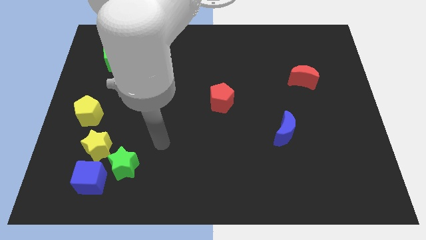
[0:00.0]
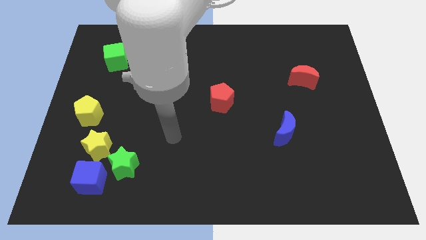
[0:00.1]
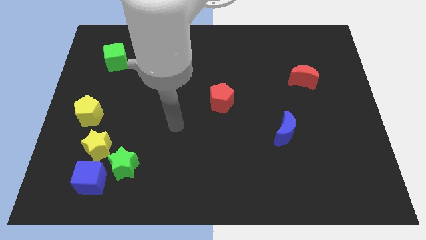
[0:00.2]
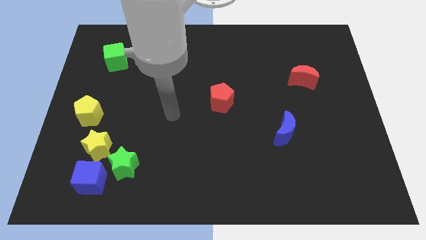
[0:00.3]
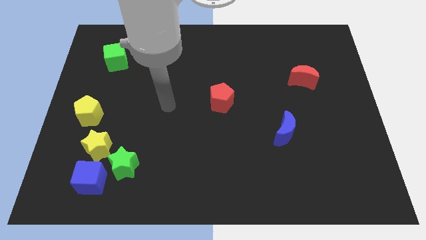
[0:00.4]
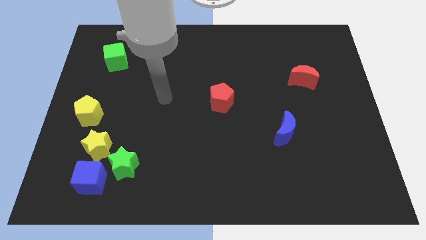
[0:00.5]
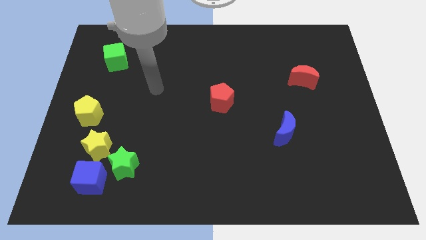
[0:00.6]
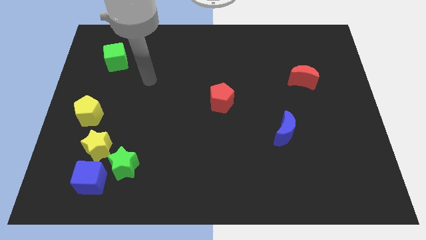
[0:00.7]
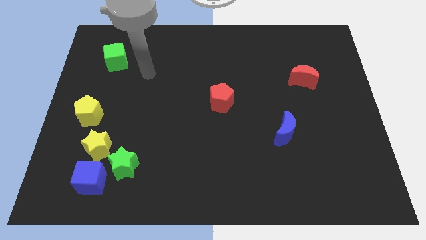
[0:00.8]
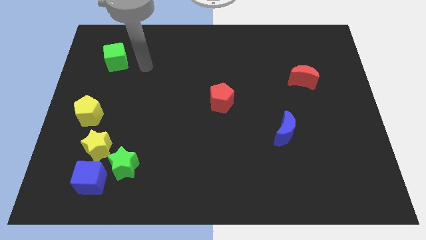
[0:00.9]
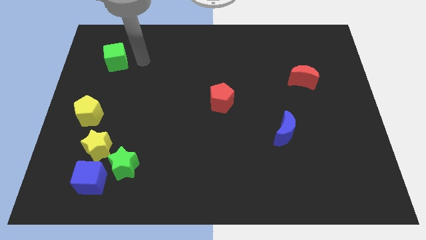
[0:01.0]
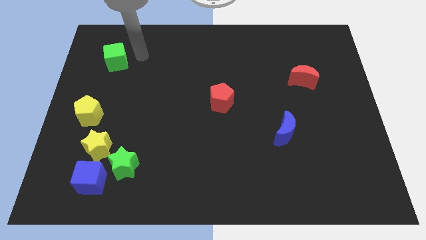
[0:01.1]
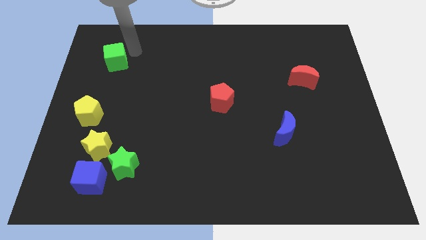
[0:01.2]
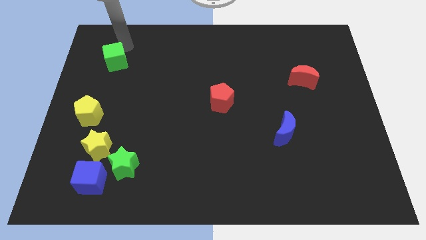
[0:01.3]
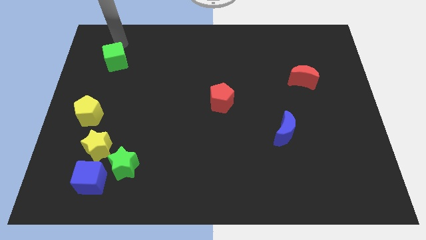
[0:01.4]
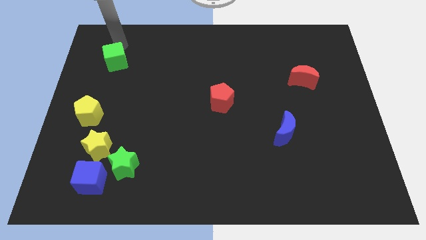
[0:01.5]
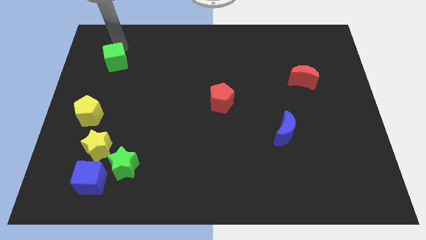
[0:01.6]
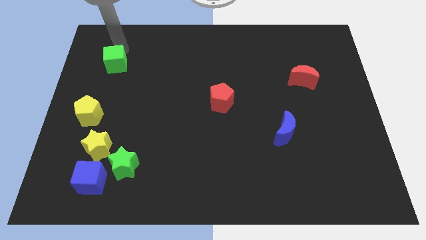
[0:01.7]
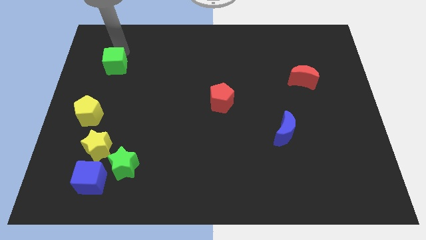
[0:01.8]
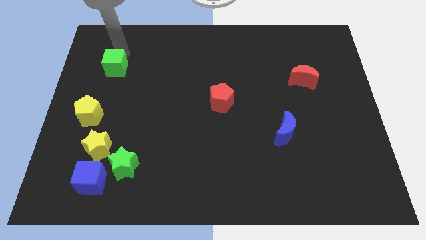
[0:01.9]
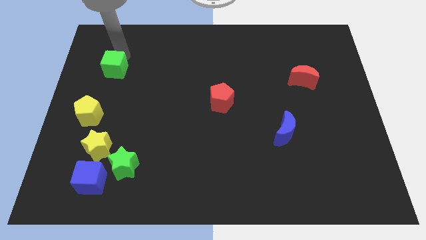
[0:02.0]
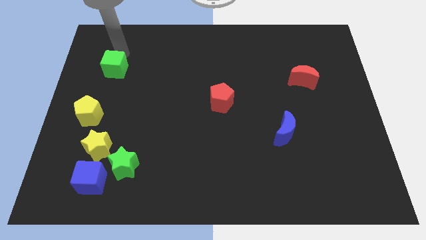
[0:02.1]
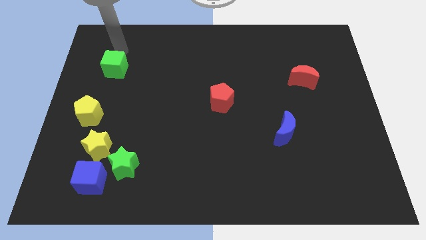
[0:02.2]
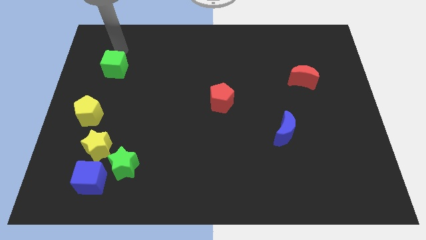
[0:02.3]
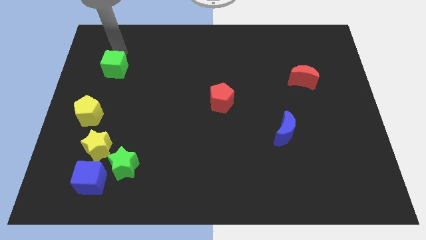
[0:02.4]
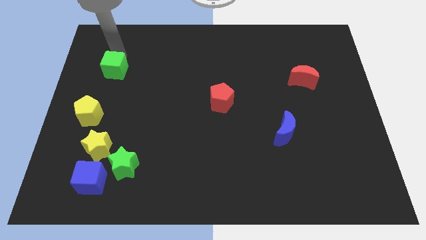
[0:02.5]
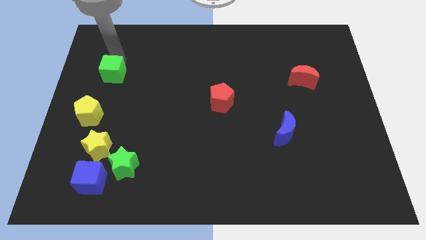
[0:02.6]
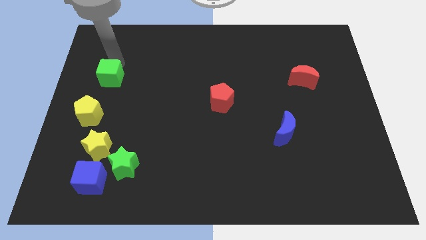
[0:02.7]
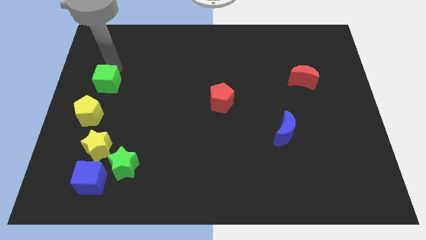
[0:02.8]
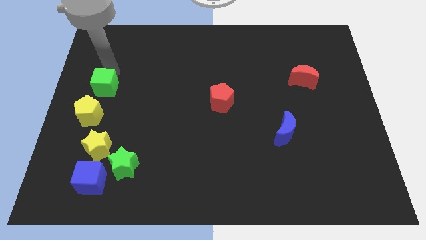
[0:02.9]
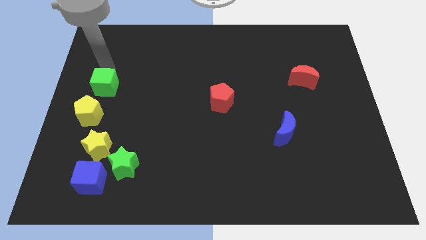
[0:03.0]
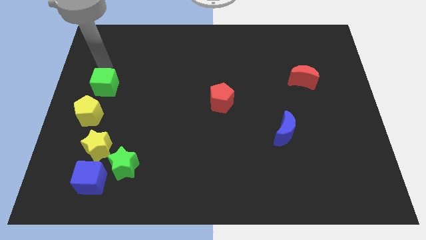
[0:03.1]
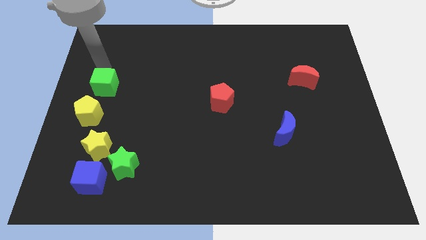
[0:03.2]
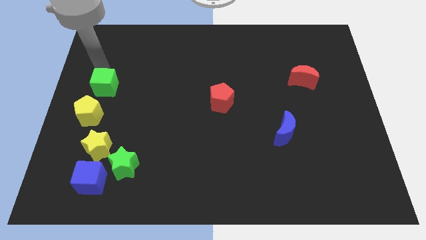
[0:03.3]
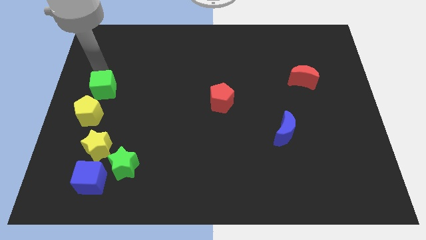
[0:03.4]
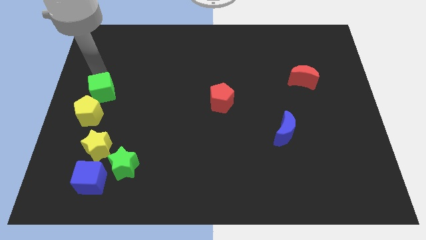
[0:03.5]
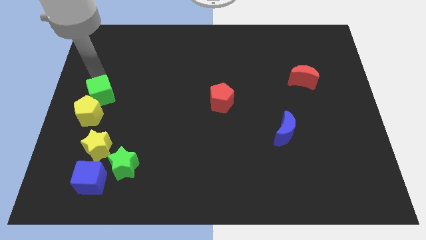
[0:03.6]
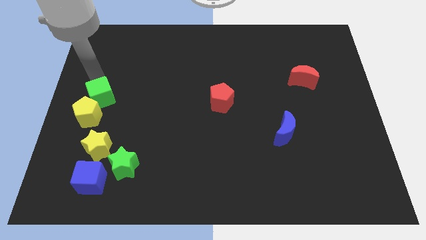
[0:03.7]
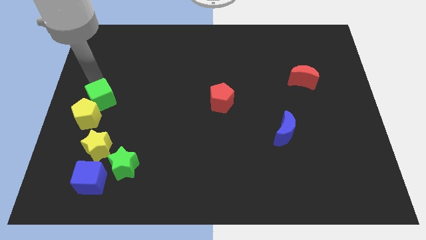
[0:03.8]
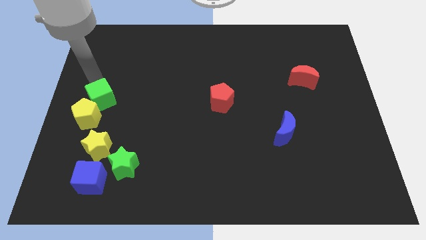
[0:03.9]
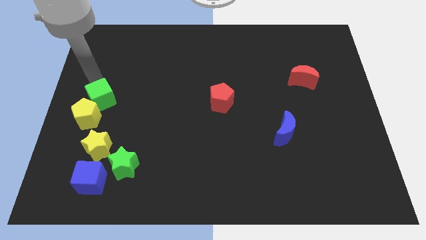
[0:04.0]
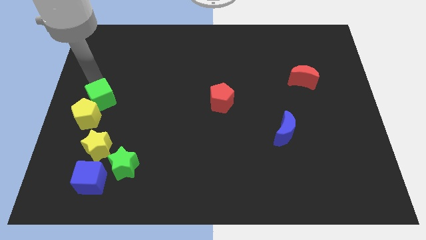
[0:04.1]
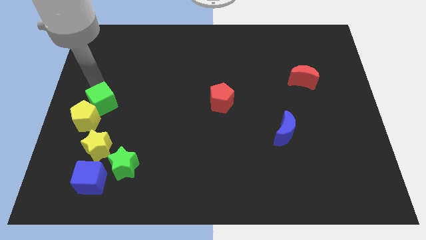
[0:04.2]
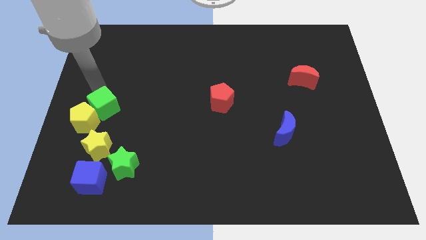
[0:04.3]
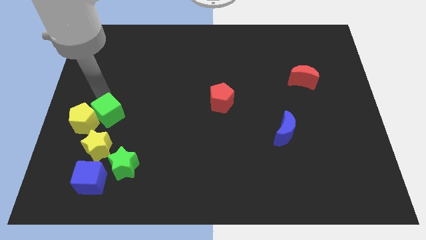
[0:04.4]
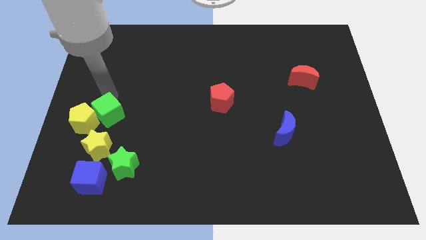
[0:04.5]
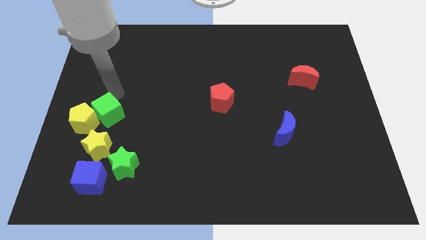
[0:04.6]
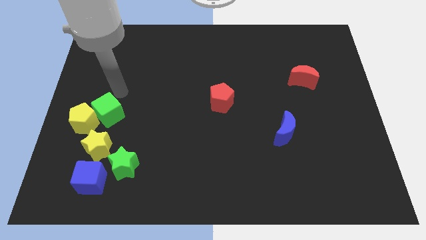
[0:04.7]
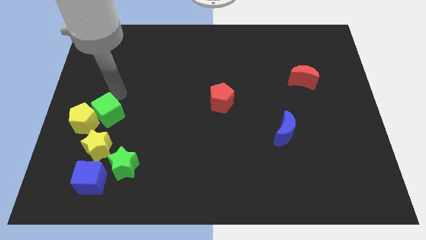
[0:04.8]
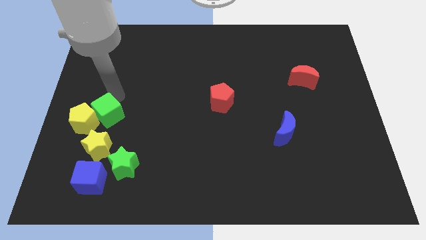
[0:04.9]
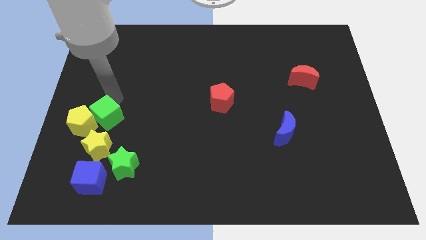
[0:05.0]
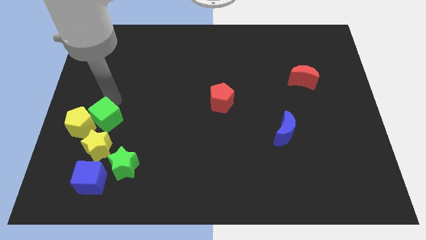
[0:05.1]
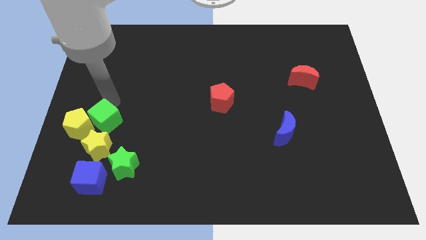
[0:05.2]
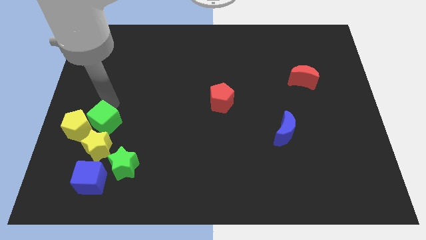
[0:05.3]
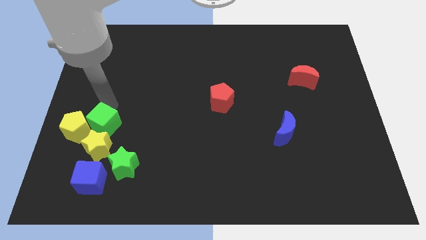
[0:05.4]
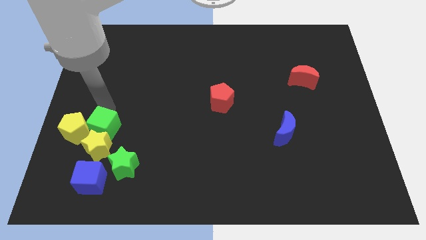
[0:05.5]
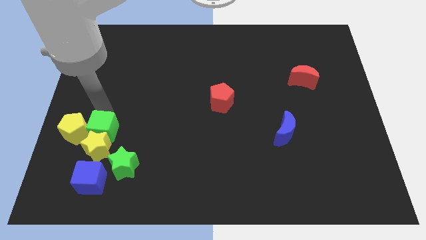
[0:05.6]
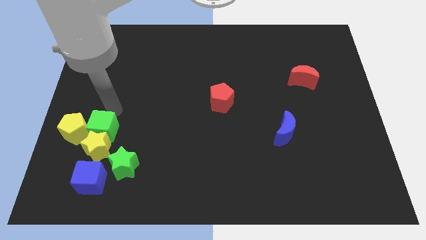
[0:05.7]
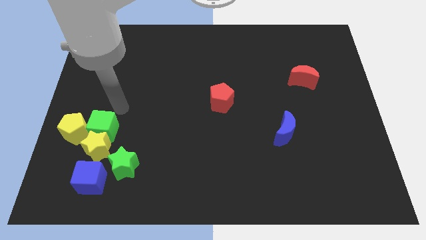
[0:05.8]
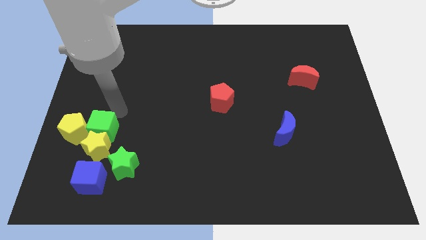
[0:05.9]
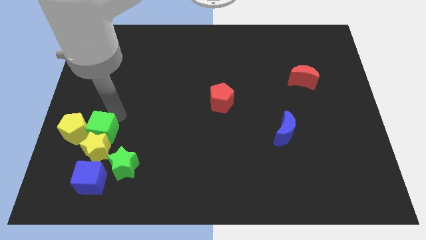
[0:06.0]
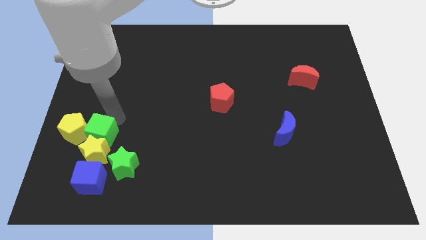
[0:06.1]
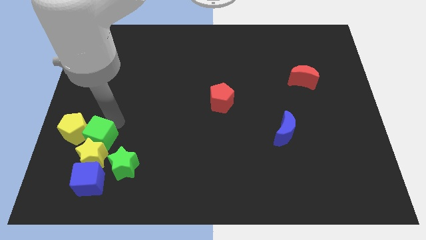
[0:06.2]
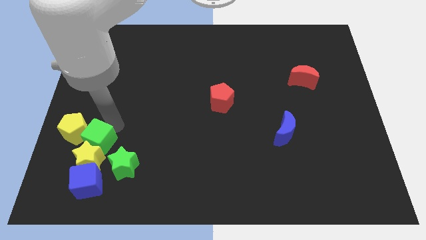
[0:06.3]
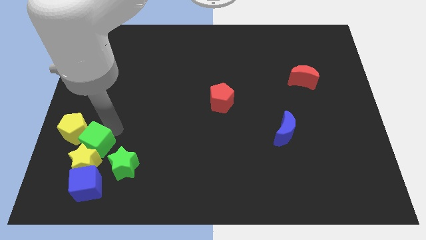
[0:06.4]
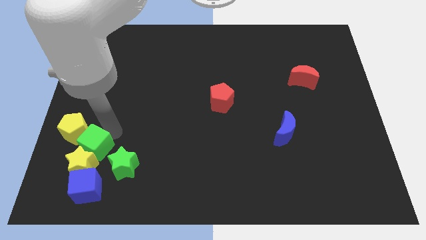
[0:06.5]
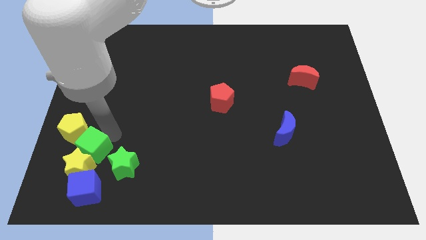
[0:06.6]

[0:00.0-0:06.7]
put the green cube just left of the green star

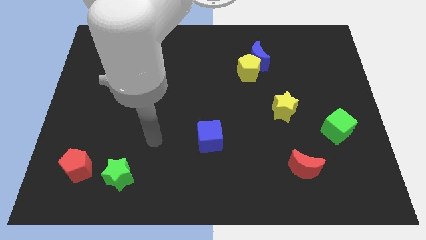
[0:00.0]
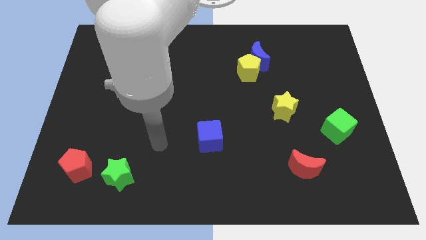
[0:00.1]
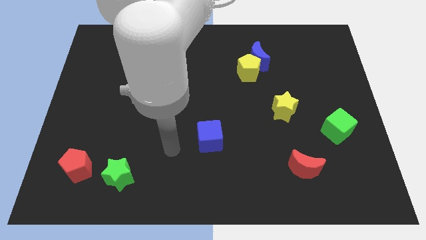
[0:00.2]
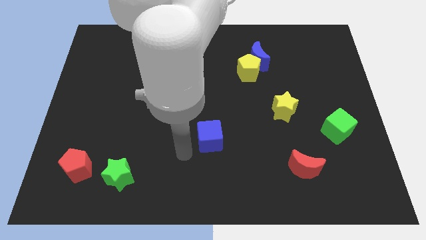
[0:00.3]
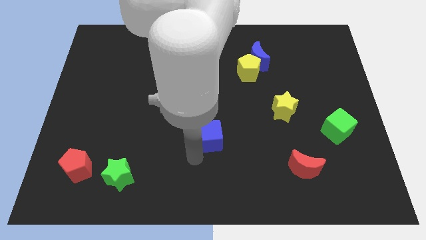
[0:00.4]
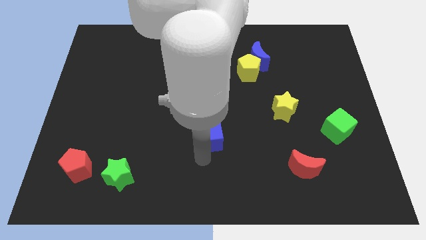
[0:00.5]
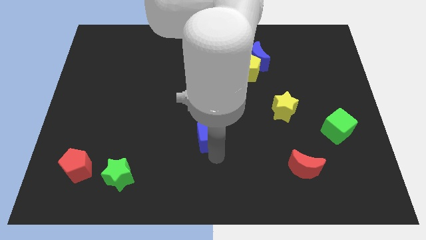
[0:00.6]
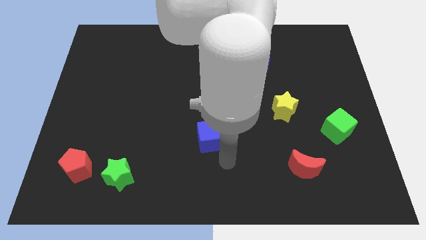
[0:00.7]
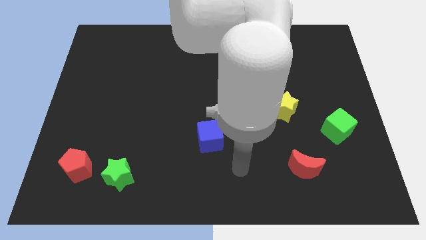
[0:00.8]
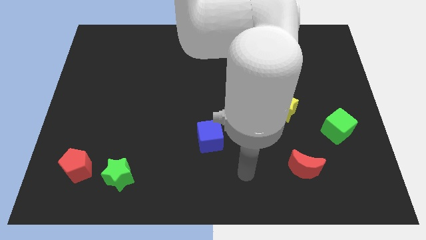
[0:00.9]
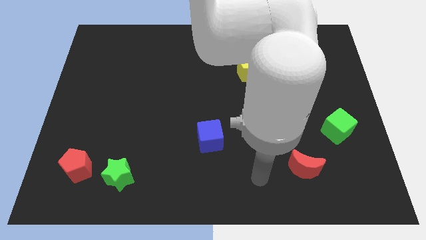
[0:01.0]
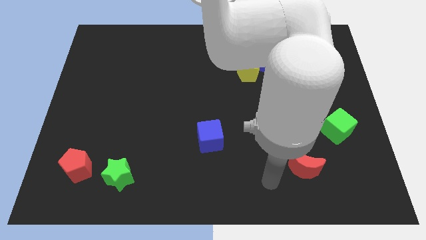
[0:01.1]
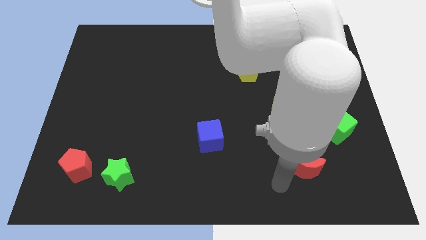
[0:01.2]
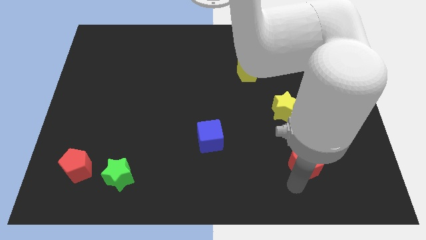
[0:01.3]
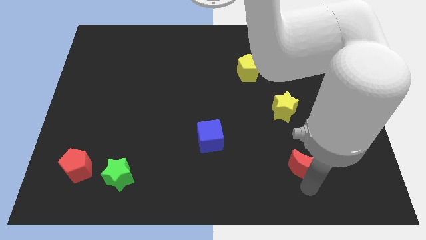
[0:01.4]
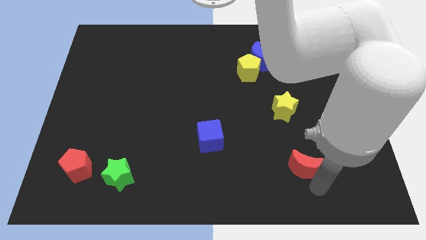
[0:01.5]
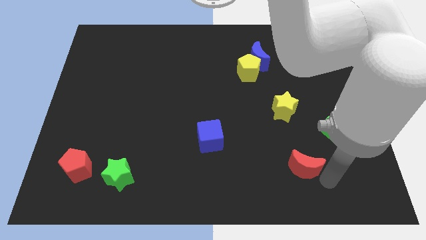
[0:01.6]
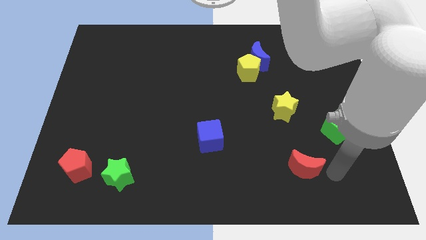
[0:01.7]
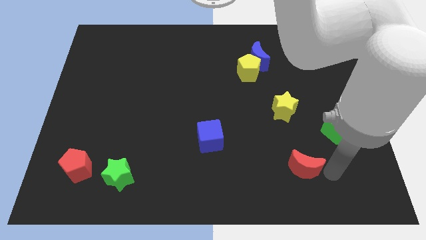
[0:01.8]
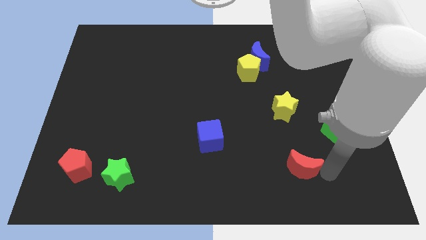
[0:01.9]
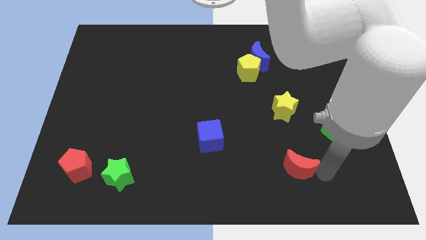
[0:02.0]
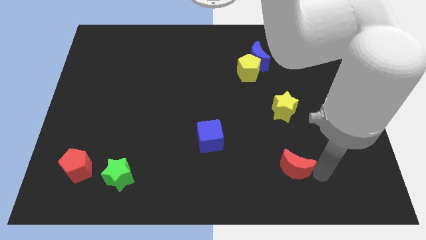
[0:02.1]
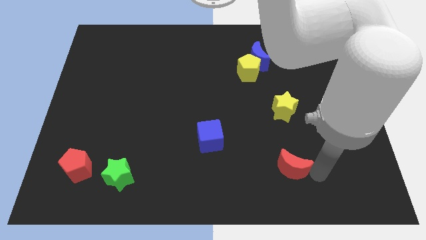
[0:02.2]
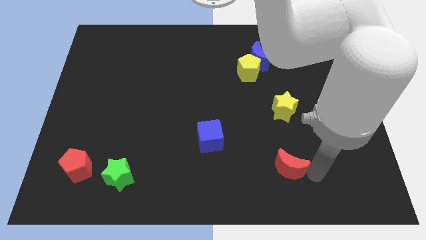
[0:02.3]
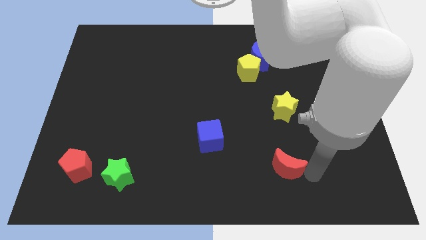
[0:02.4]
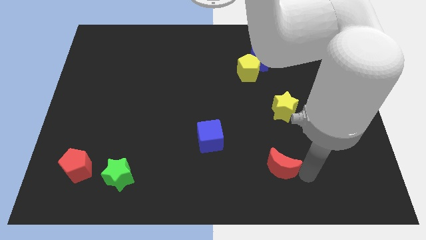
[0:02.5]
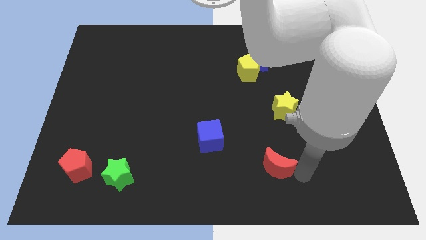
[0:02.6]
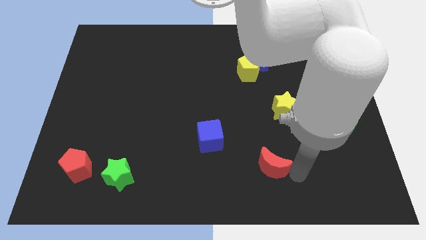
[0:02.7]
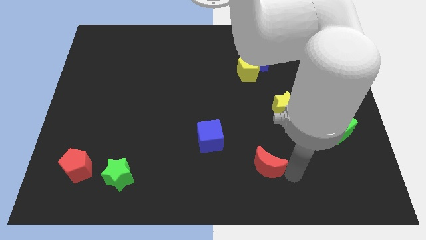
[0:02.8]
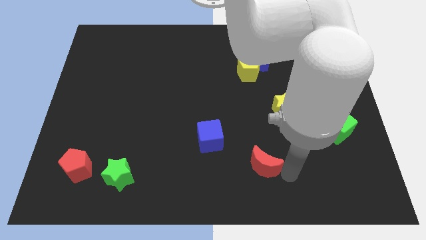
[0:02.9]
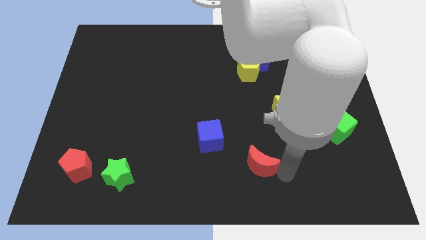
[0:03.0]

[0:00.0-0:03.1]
slide the red moon diagonally down and to the right of the blue cube
